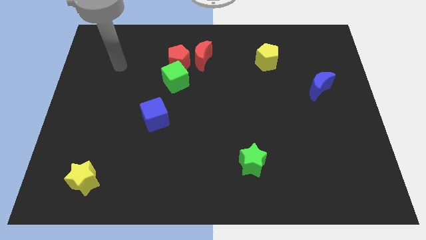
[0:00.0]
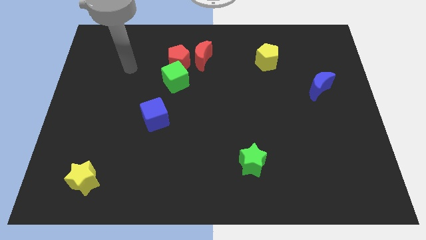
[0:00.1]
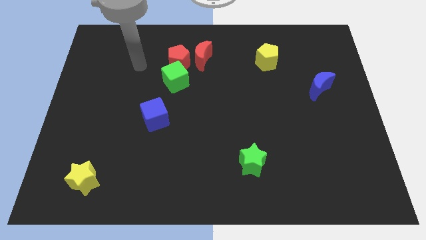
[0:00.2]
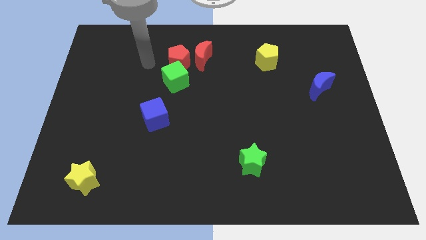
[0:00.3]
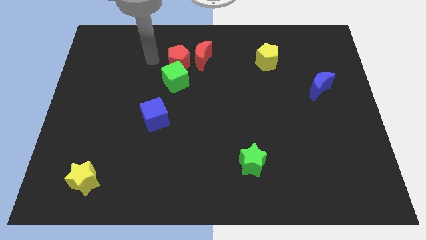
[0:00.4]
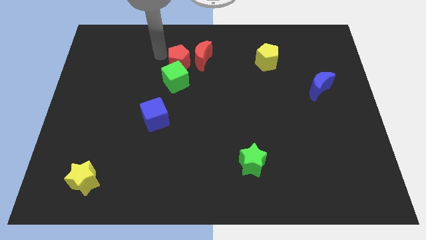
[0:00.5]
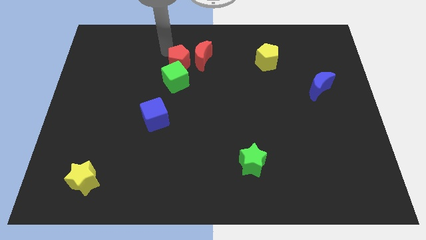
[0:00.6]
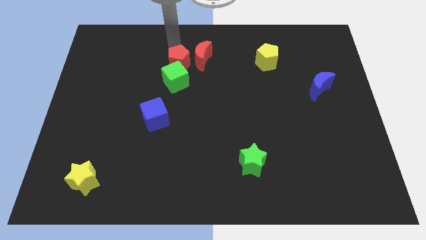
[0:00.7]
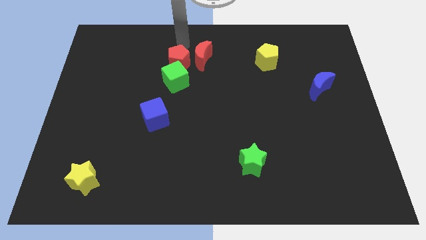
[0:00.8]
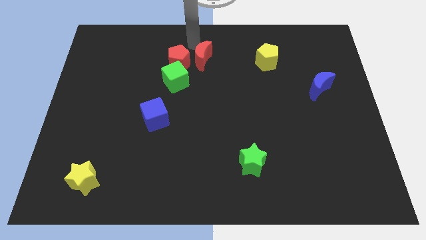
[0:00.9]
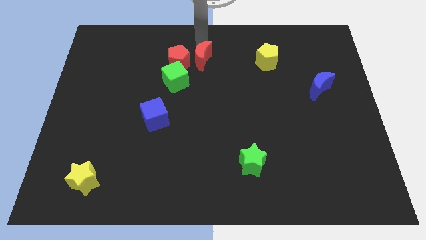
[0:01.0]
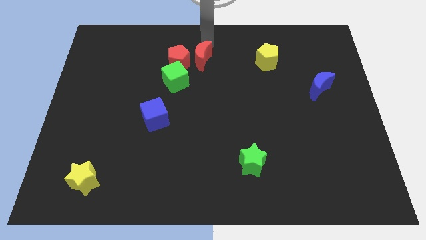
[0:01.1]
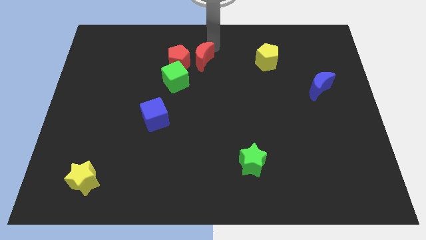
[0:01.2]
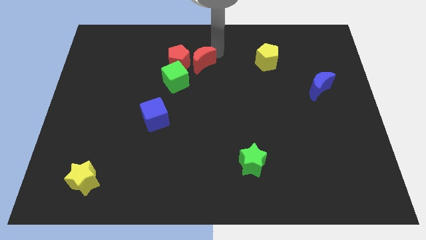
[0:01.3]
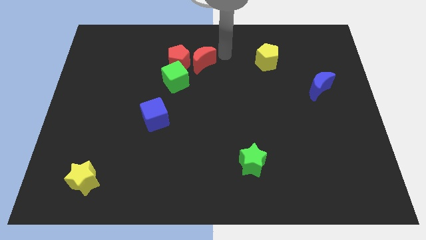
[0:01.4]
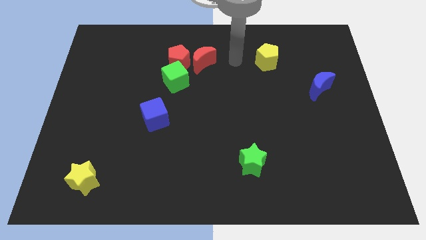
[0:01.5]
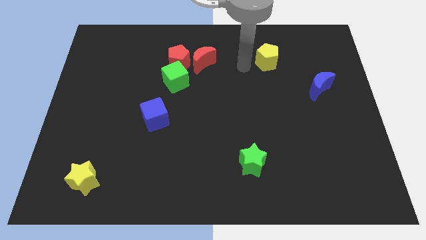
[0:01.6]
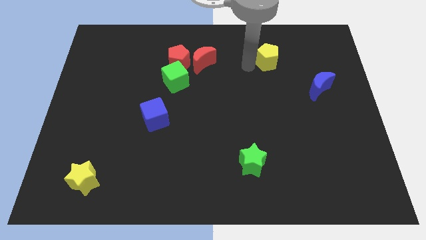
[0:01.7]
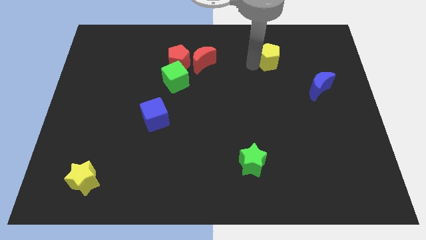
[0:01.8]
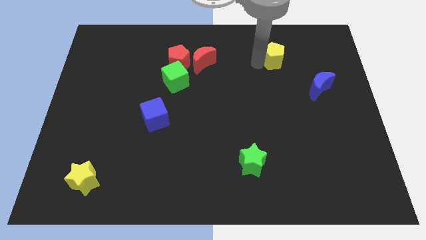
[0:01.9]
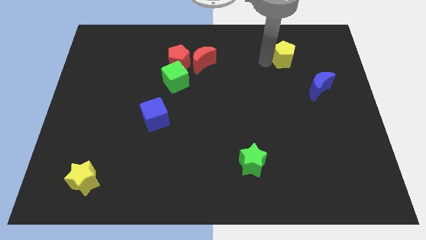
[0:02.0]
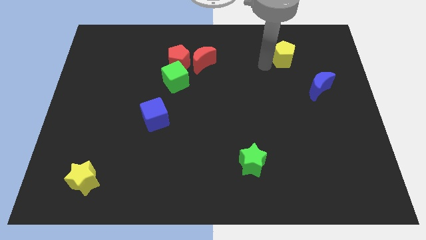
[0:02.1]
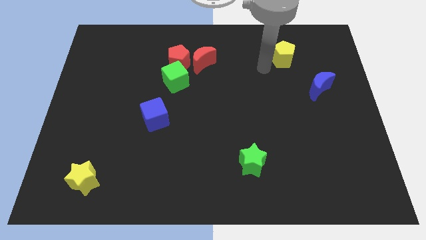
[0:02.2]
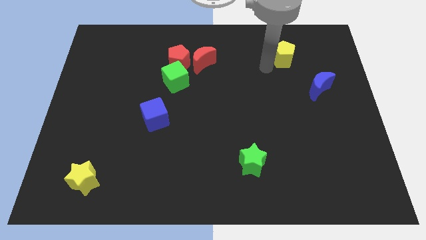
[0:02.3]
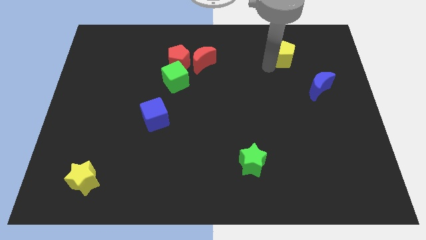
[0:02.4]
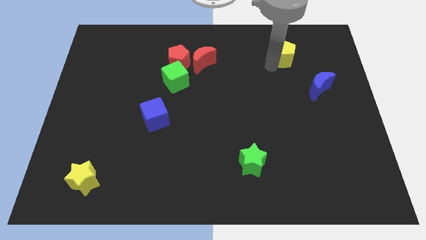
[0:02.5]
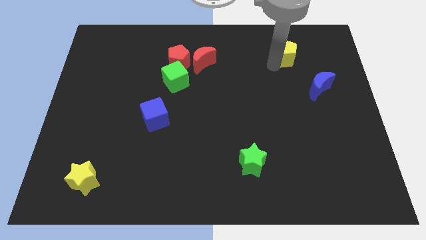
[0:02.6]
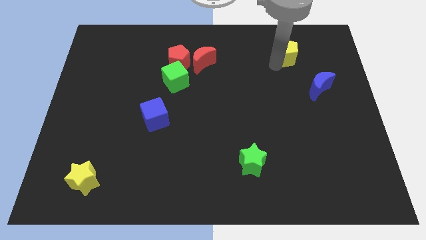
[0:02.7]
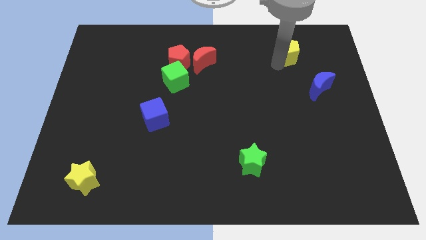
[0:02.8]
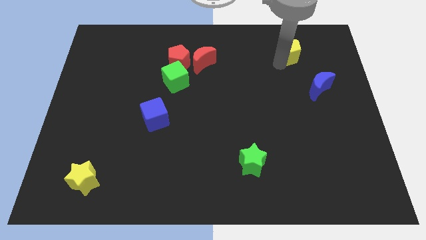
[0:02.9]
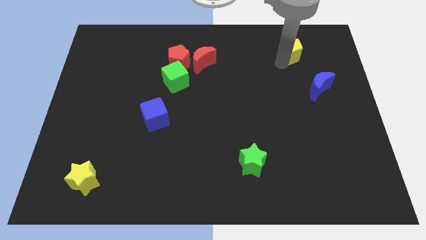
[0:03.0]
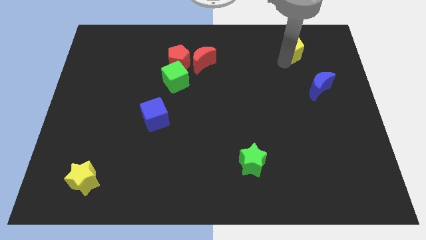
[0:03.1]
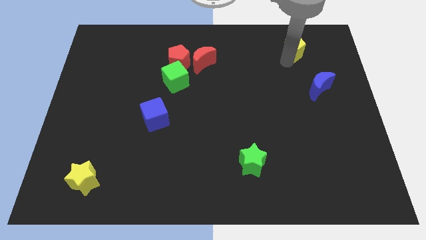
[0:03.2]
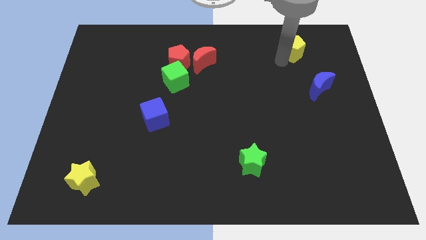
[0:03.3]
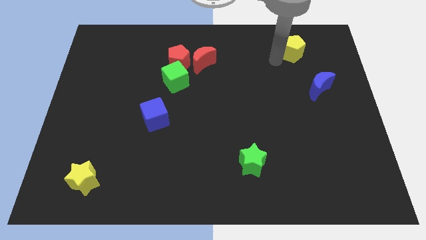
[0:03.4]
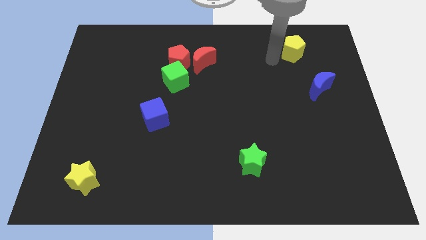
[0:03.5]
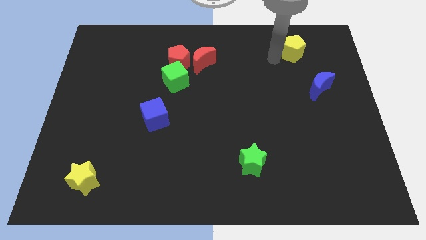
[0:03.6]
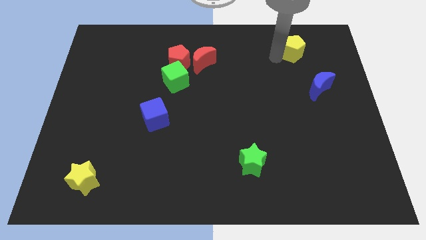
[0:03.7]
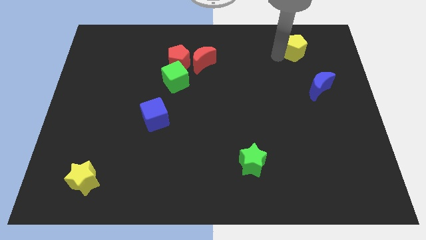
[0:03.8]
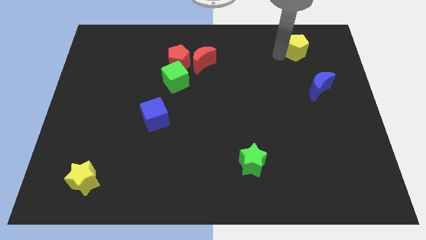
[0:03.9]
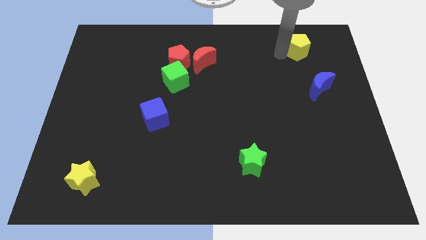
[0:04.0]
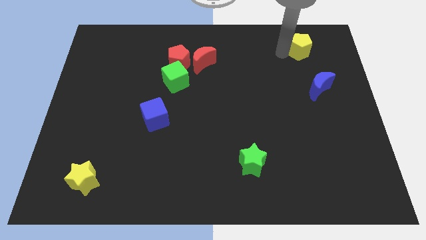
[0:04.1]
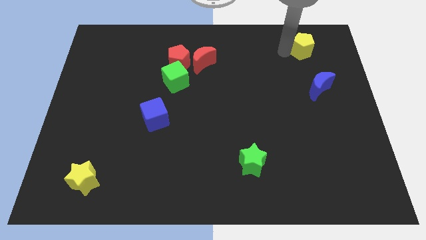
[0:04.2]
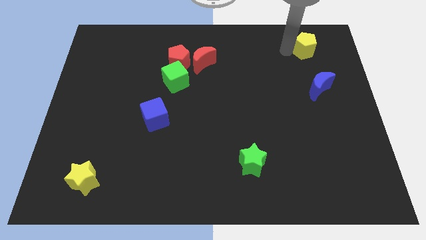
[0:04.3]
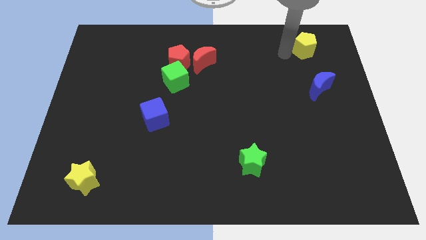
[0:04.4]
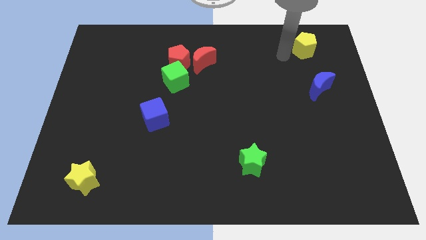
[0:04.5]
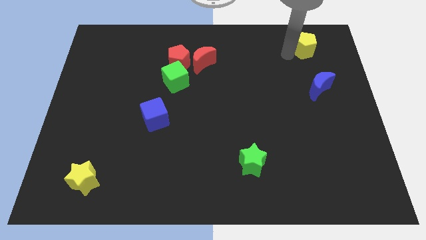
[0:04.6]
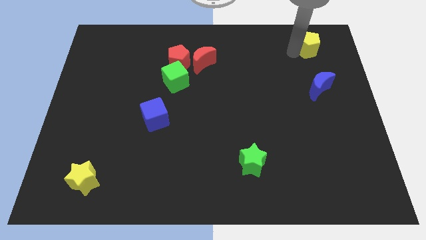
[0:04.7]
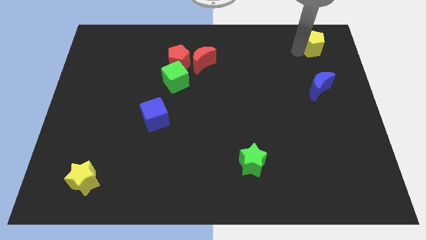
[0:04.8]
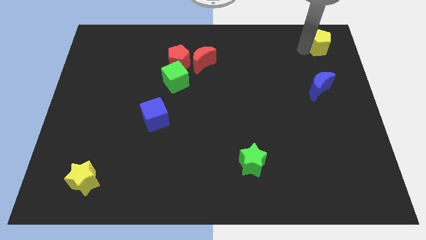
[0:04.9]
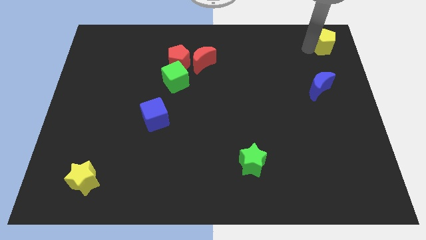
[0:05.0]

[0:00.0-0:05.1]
slide the yellow pentagon to the top right
